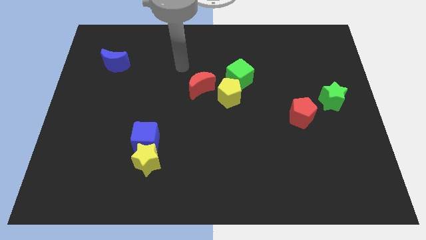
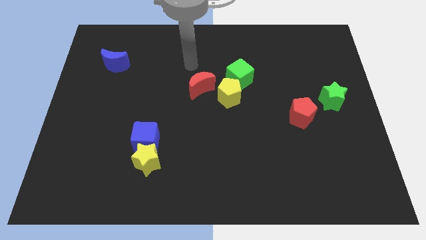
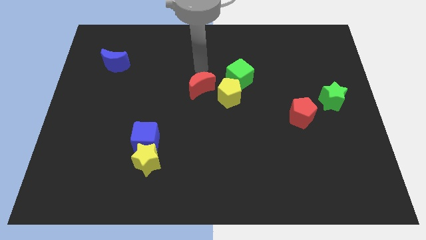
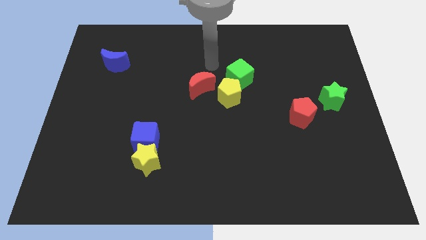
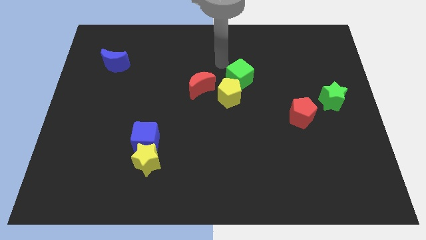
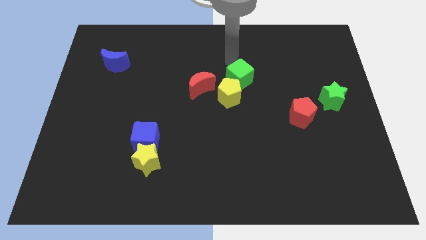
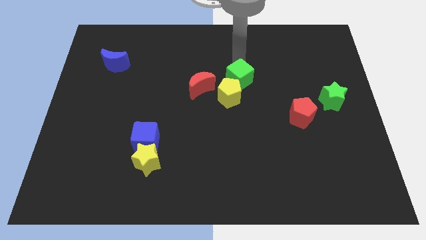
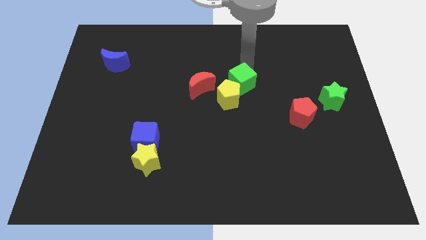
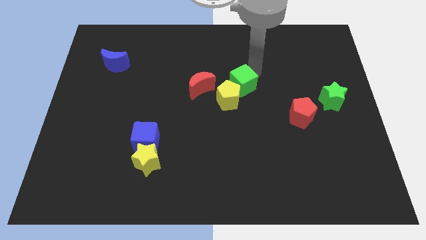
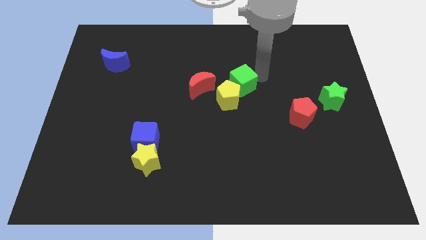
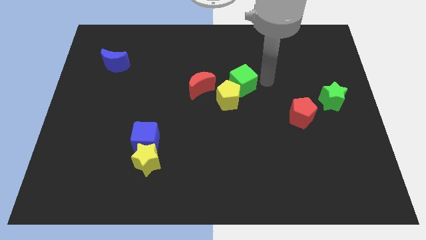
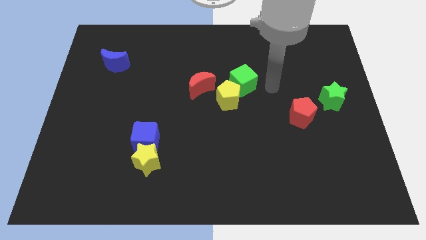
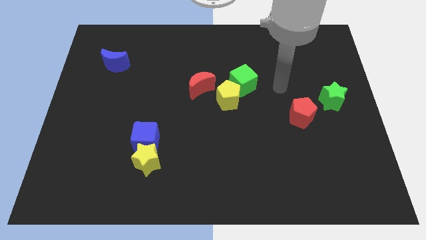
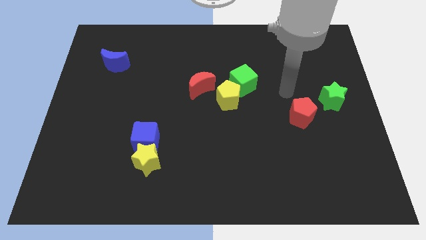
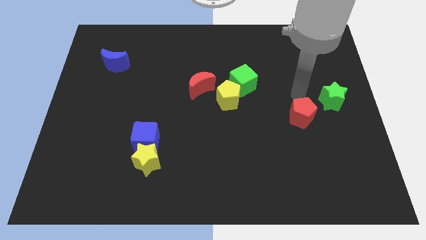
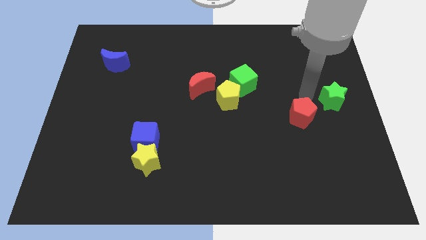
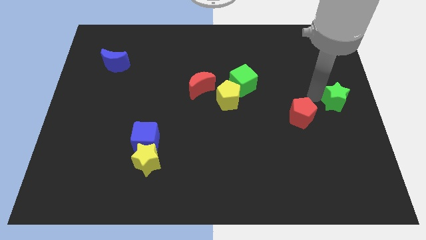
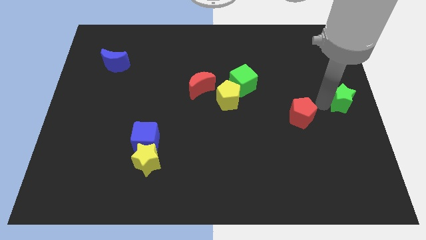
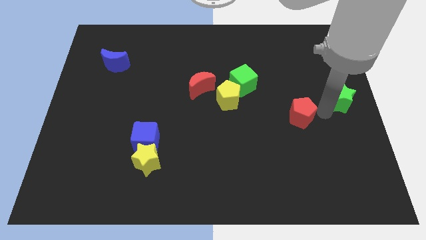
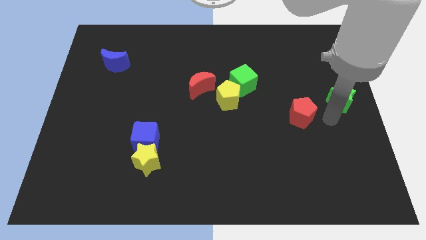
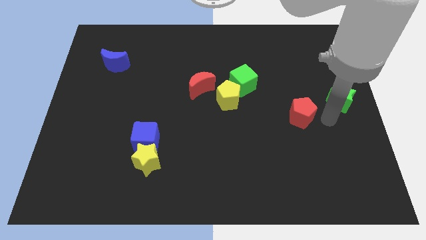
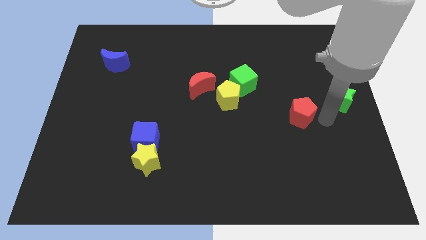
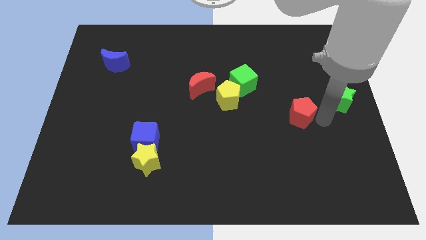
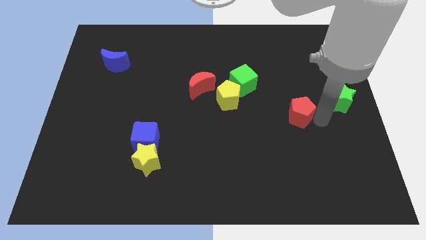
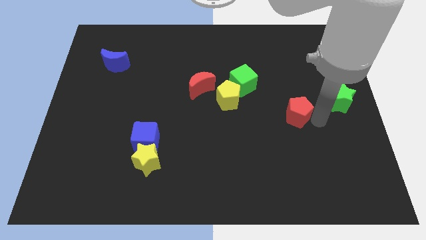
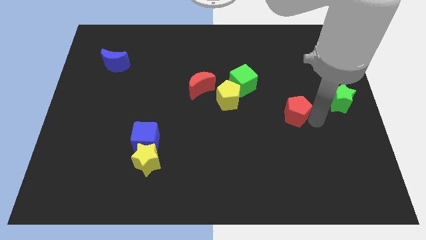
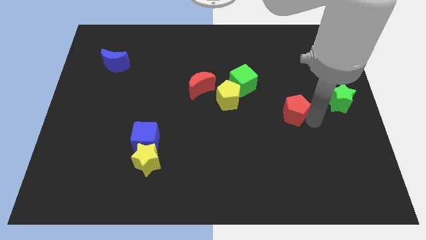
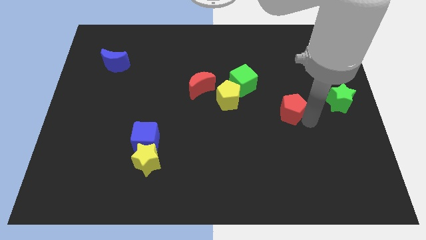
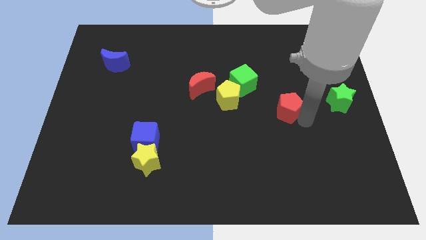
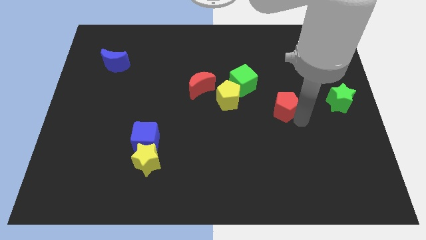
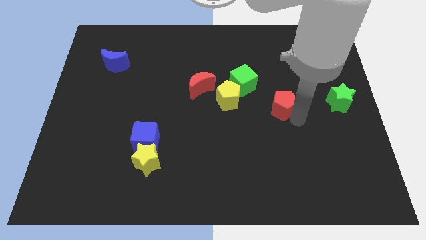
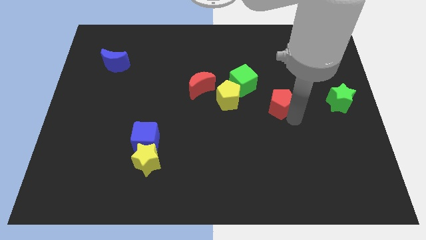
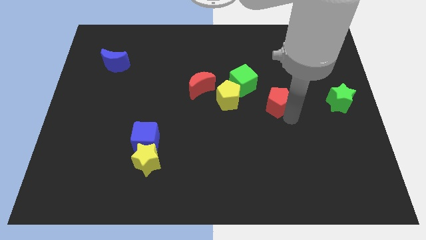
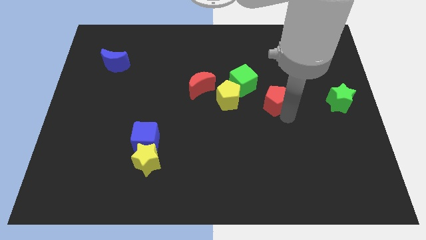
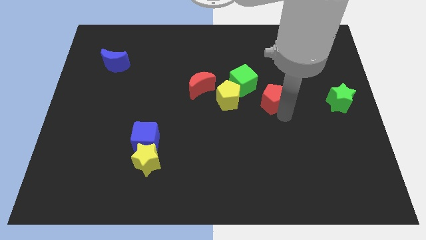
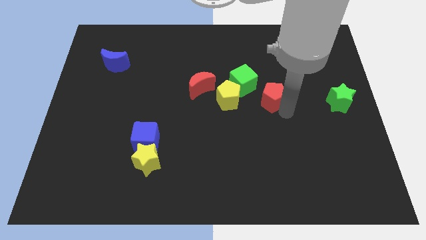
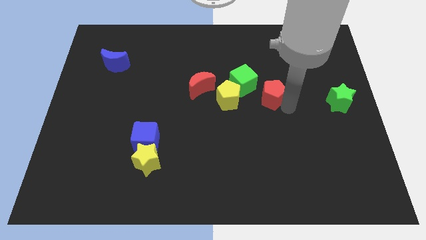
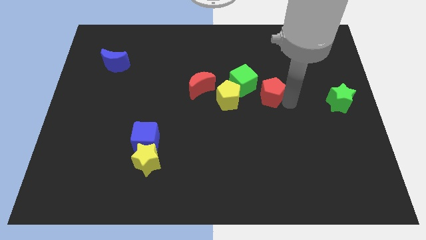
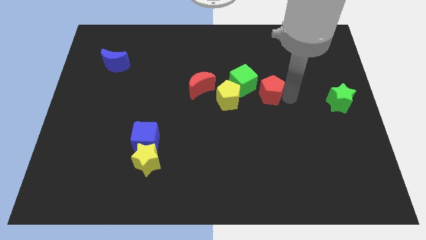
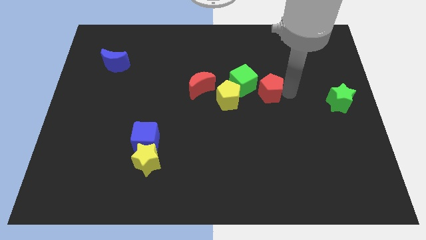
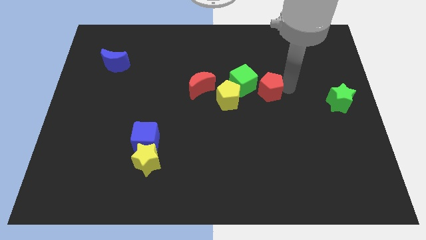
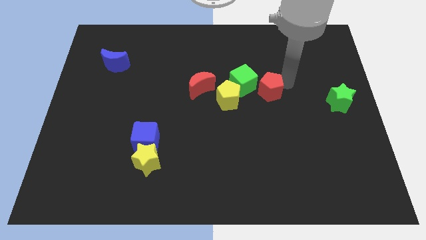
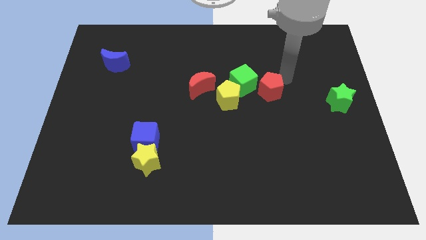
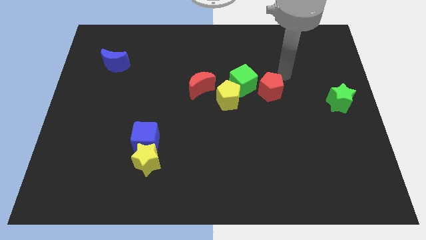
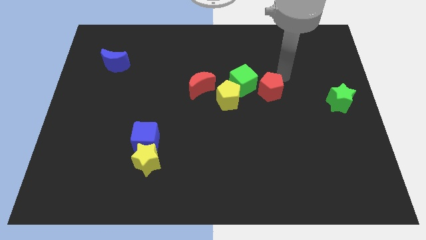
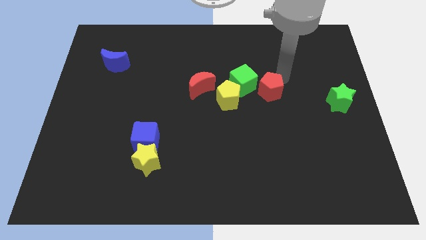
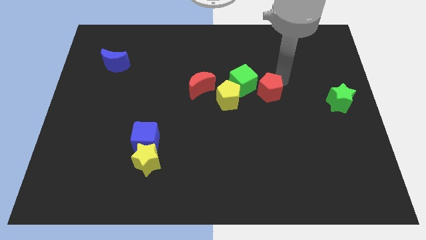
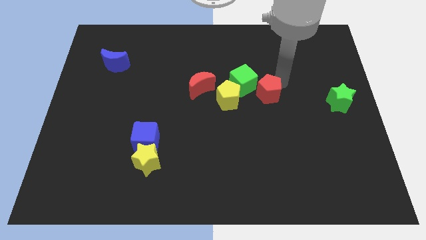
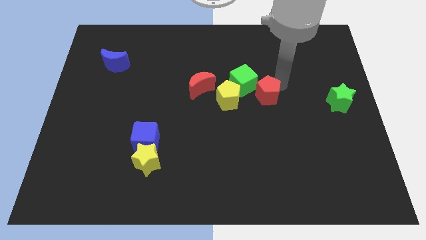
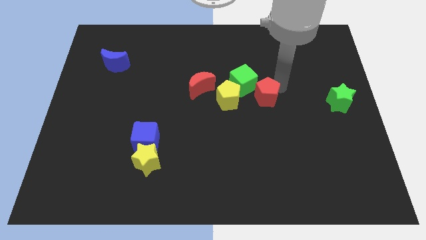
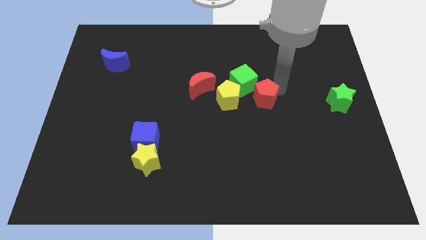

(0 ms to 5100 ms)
move the red pentagon to the center of the board

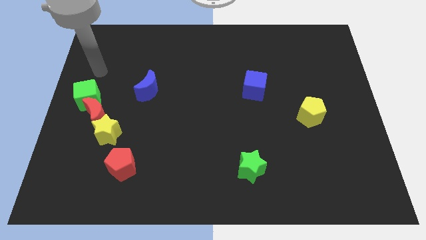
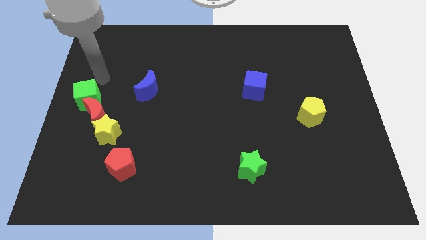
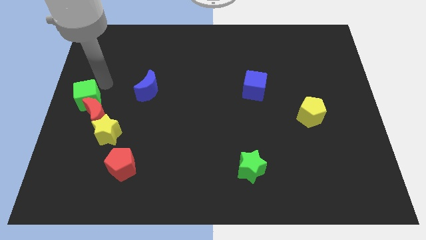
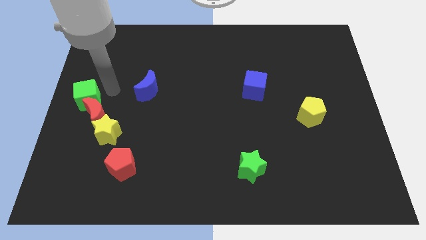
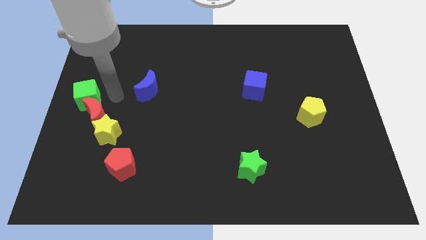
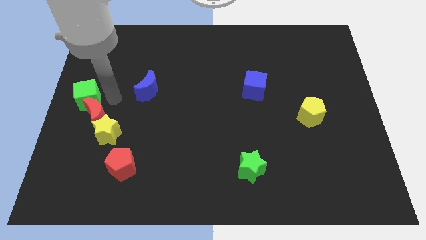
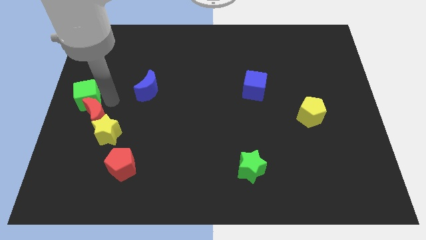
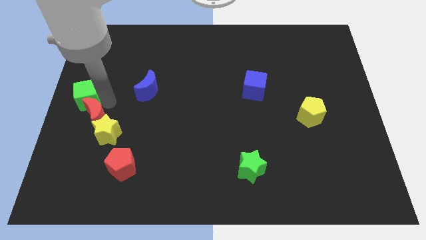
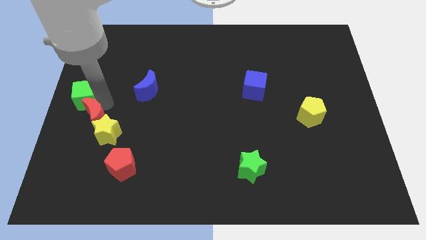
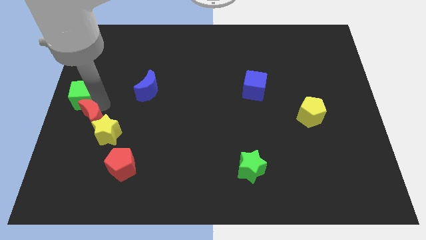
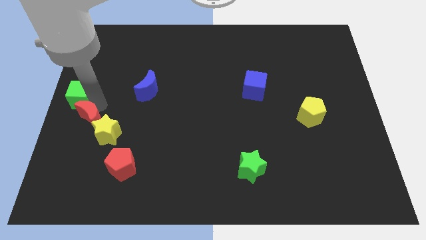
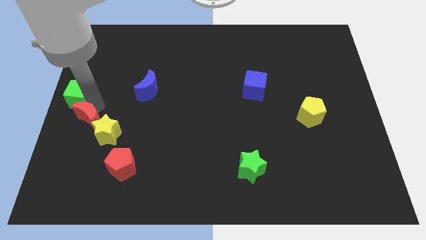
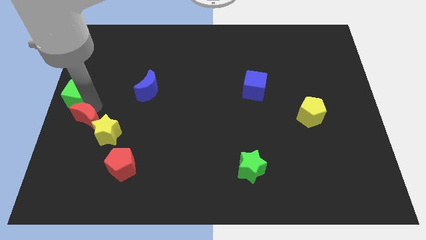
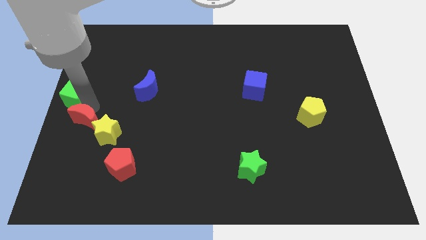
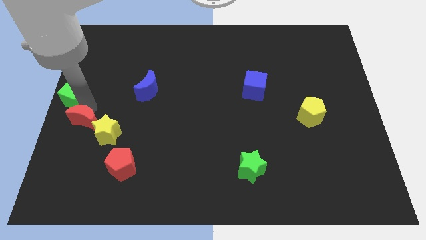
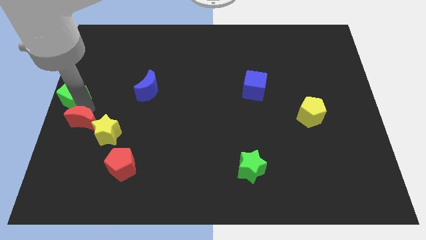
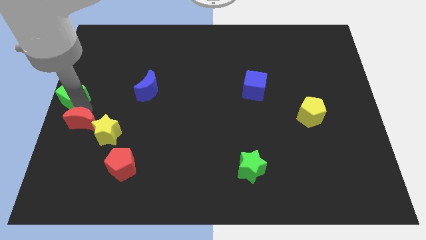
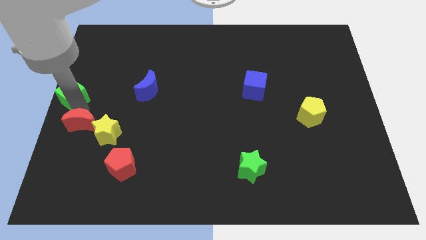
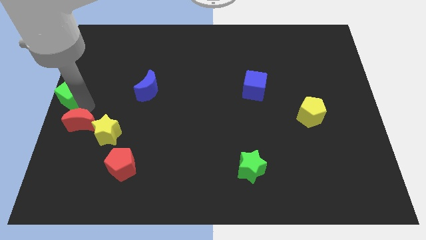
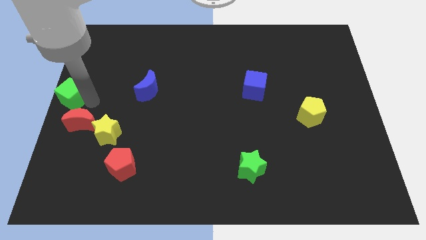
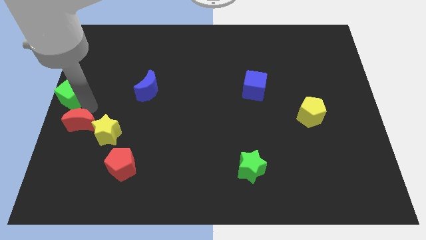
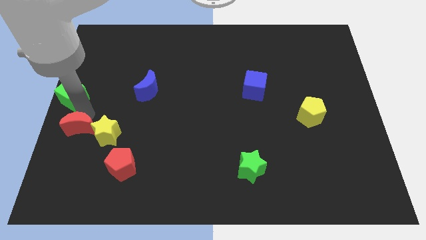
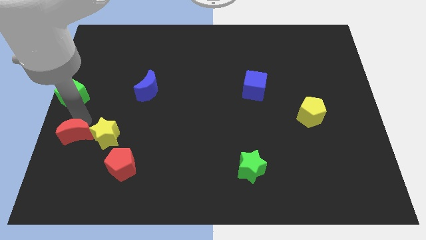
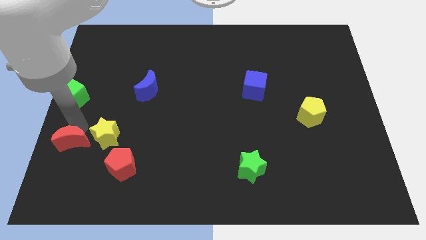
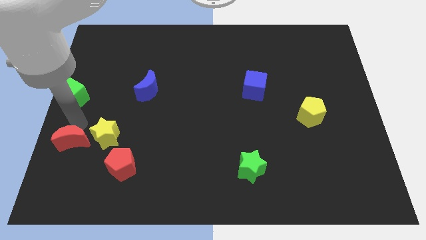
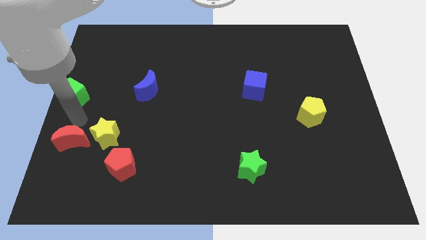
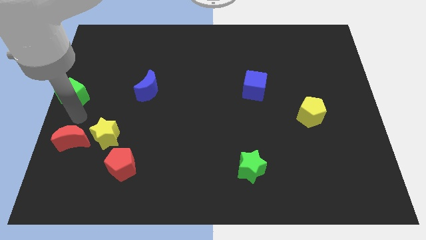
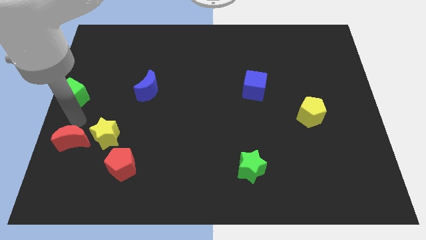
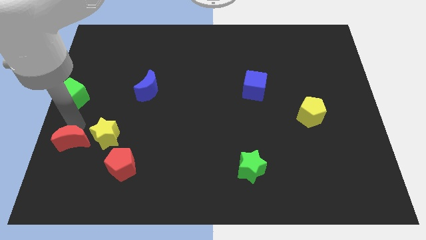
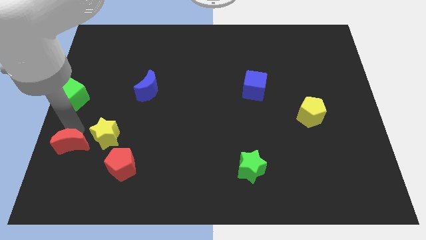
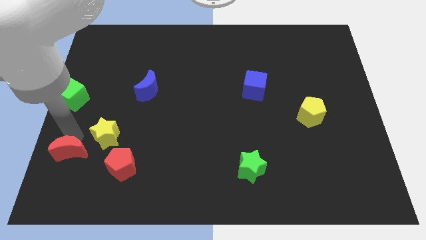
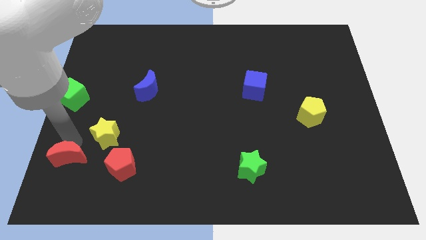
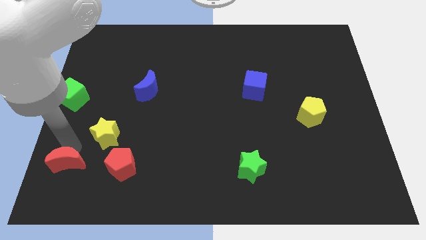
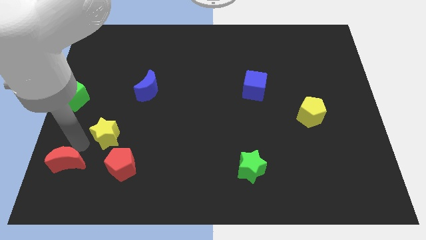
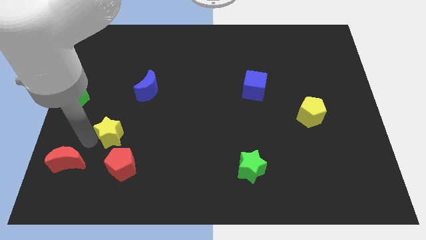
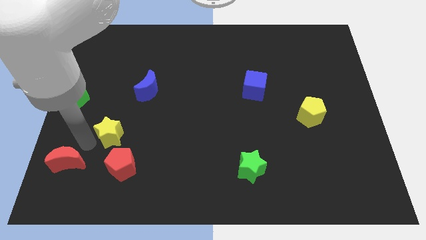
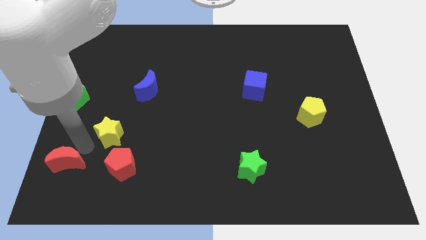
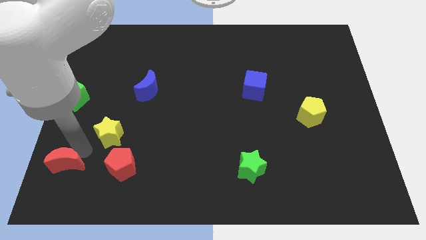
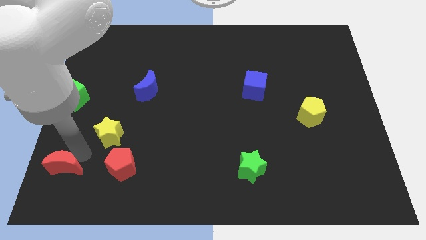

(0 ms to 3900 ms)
slide the red moon to the bottom left
